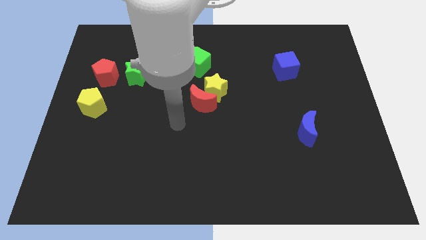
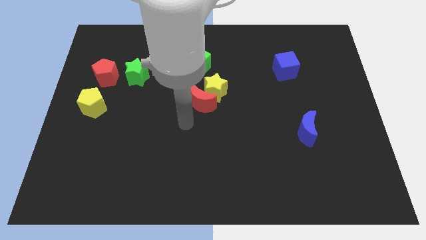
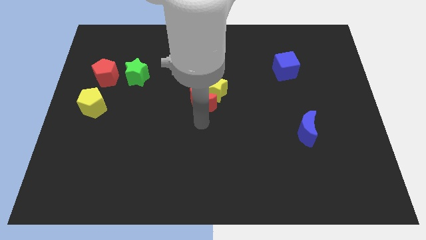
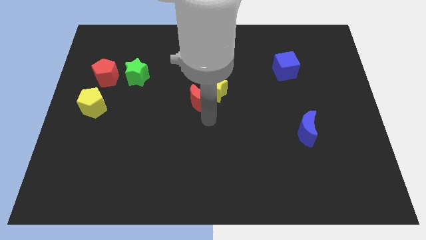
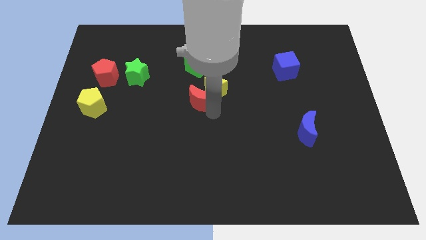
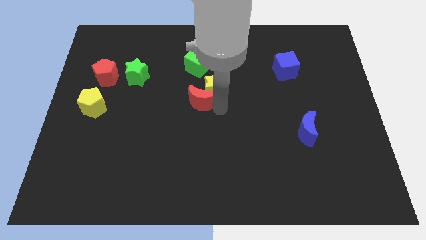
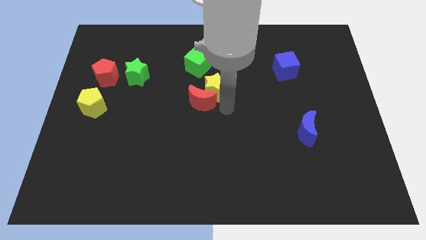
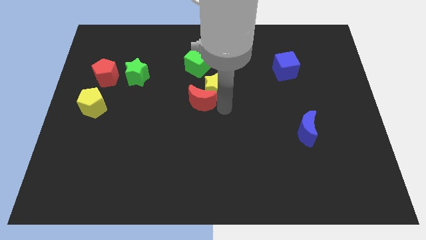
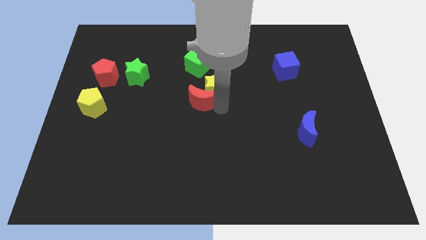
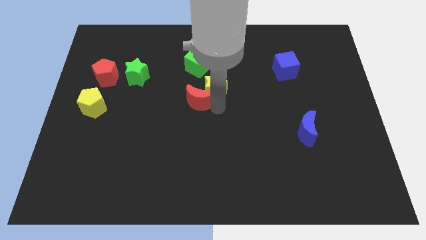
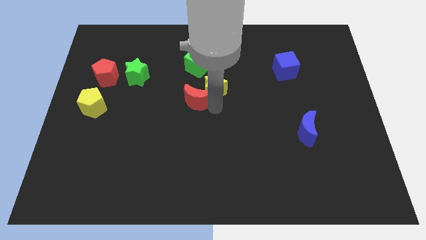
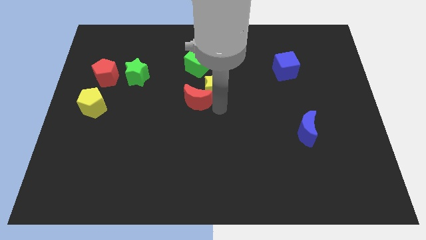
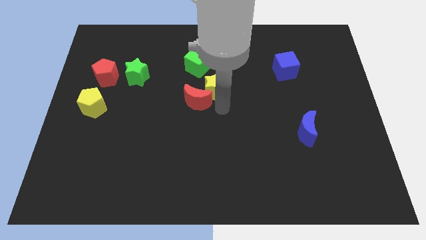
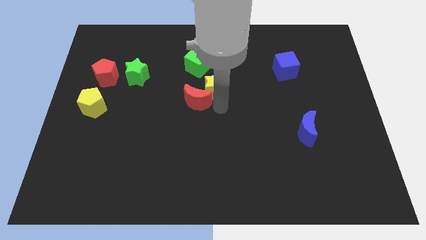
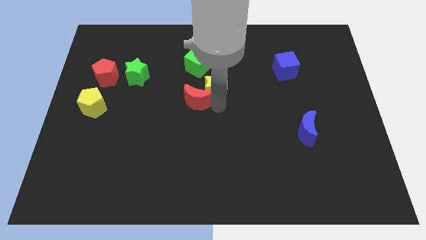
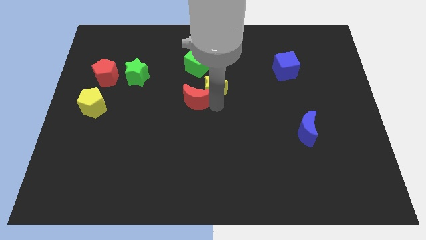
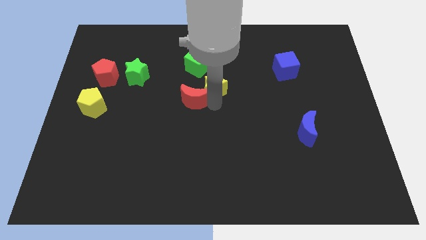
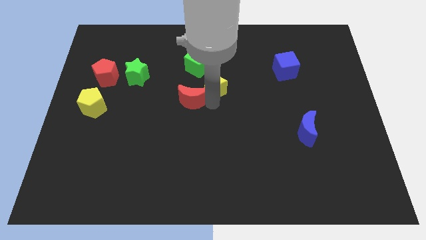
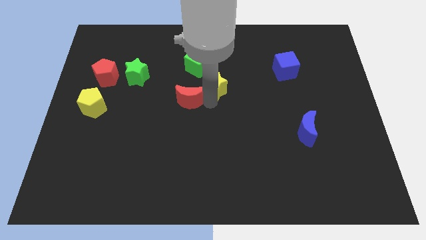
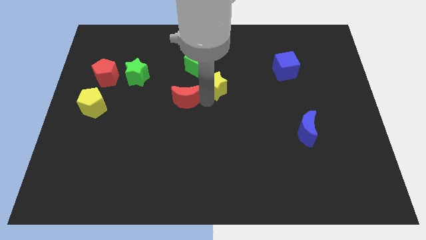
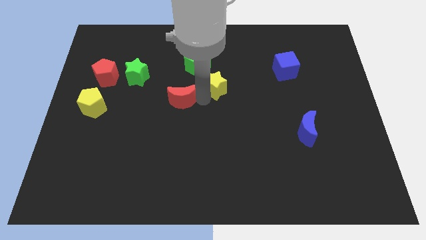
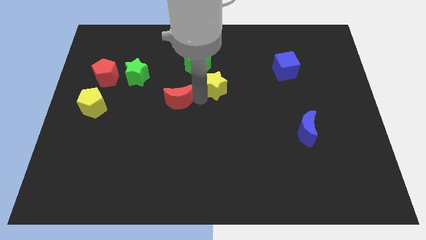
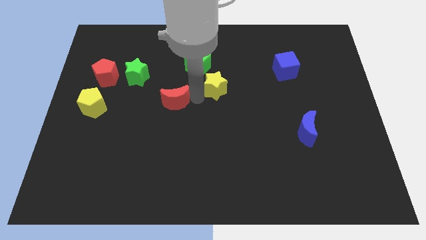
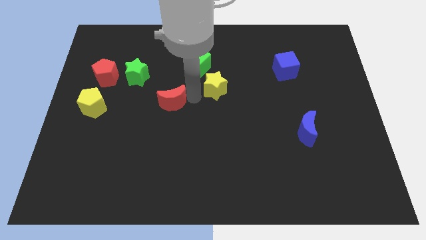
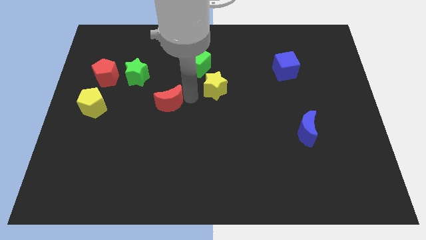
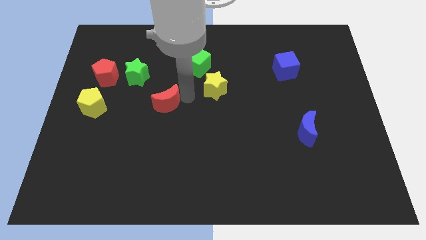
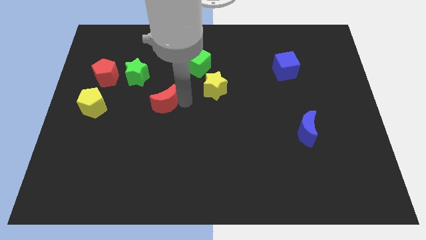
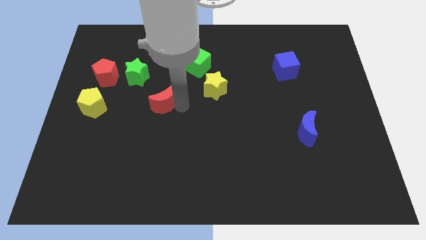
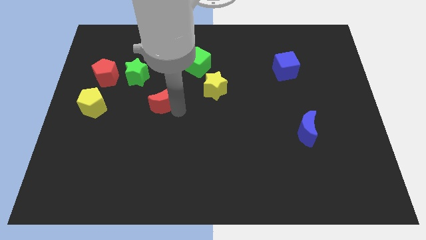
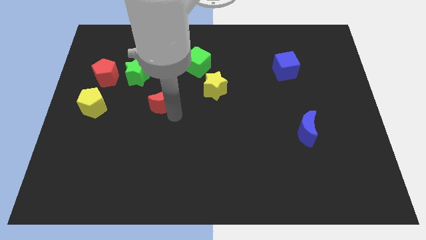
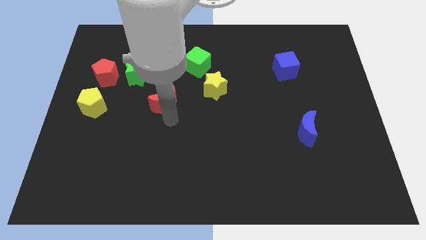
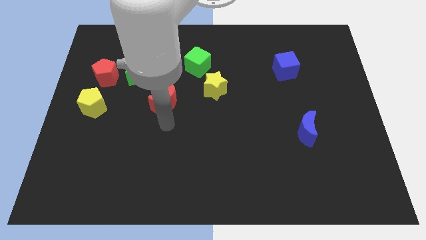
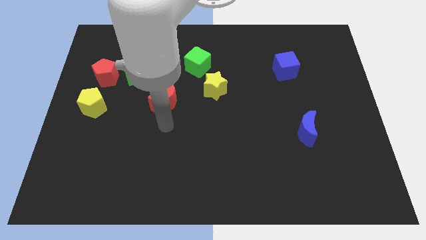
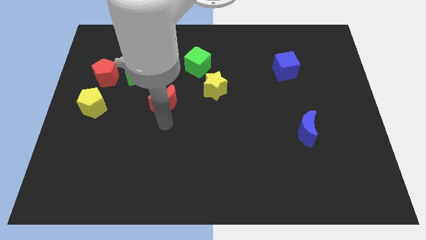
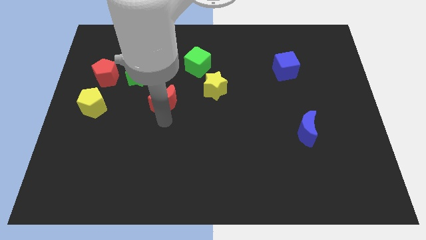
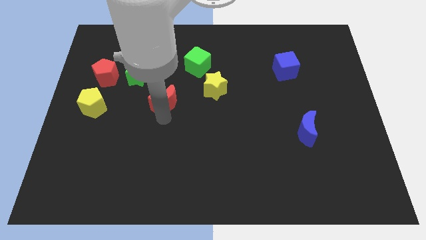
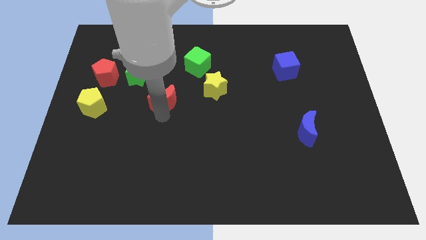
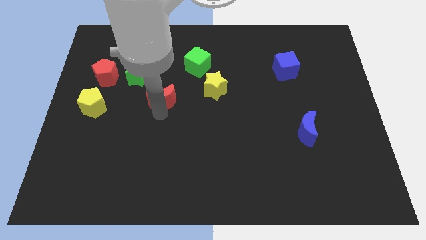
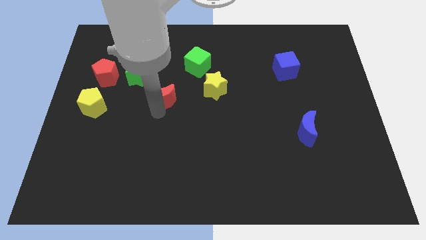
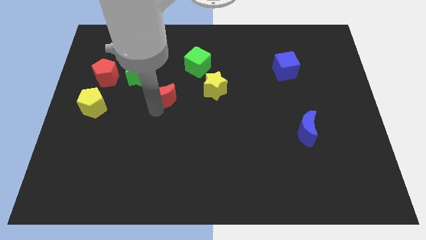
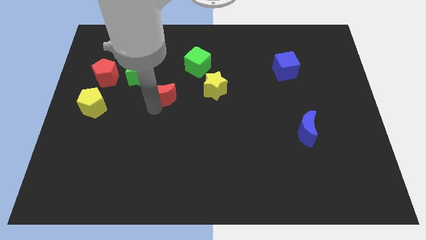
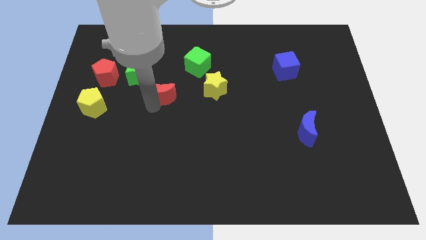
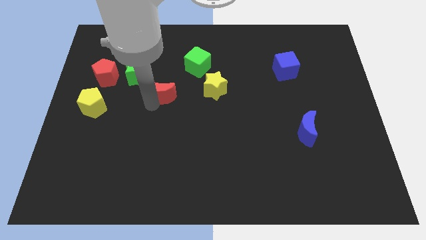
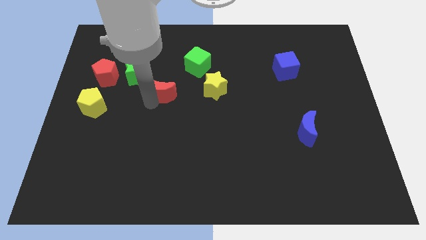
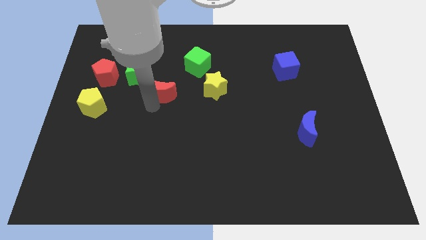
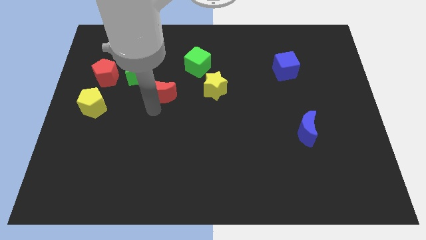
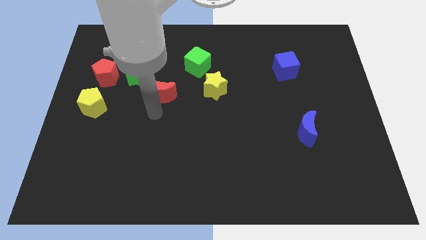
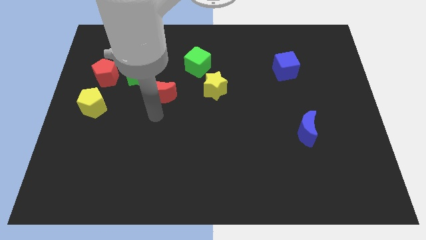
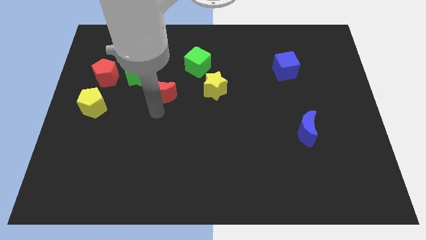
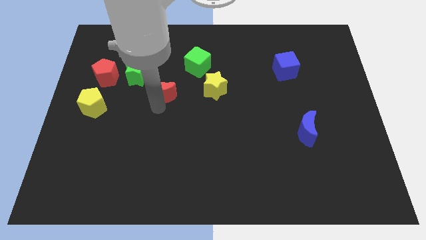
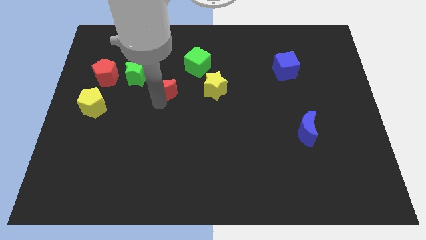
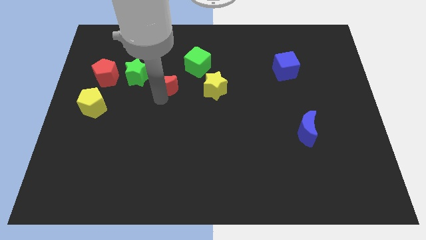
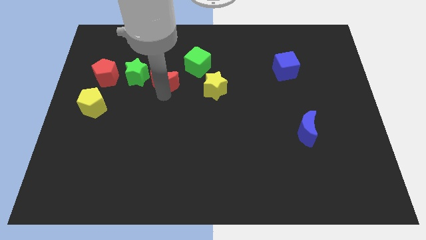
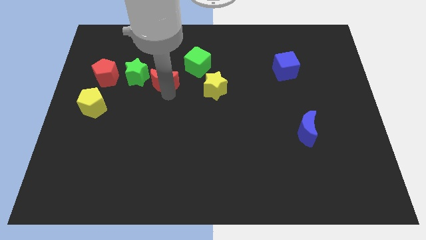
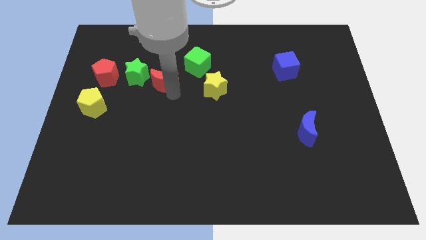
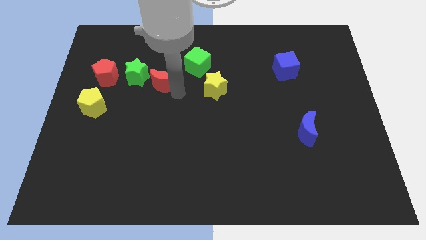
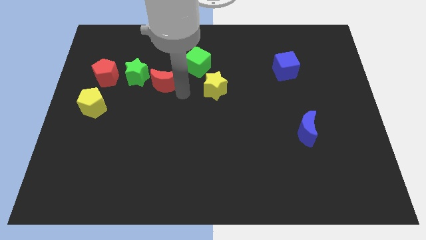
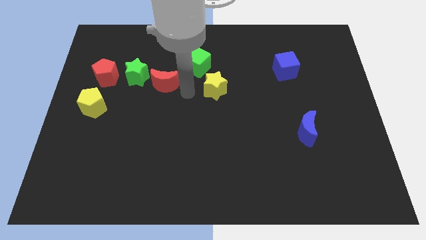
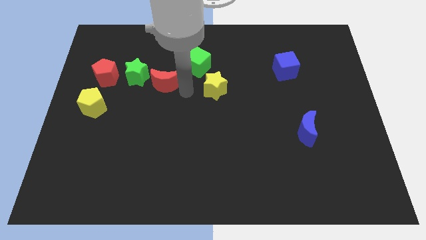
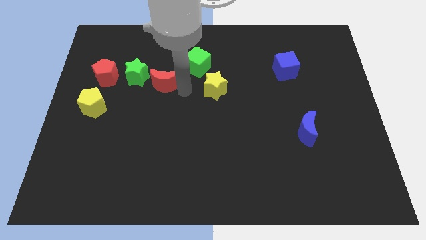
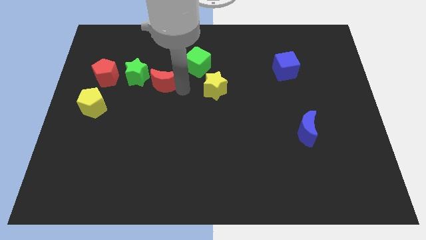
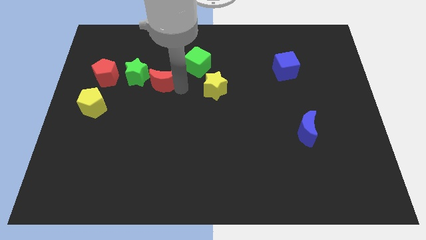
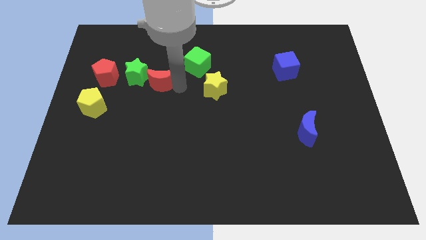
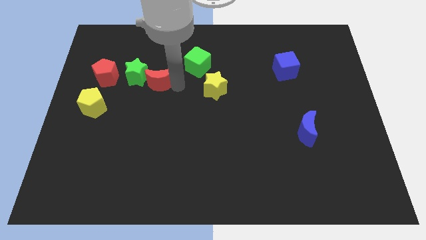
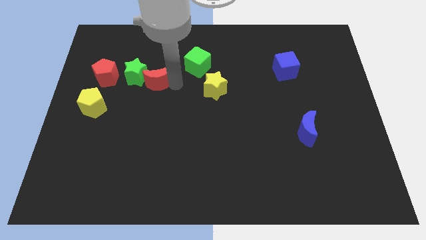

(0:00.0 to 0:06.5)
push the red moon close to the green star

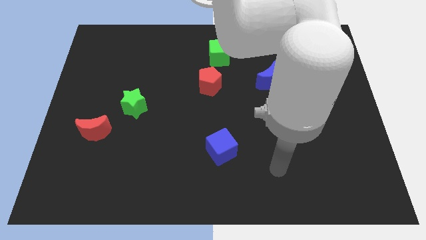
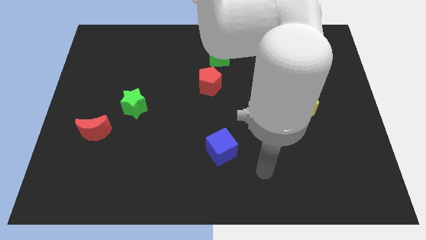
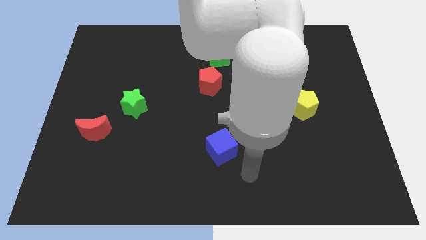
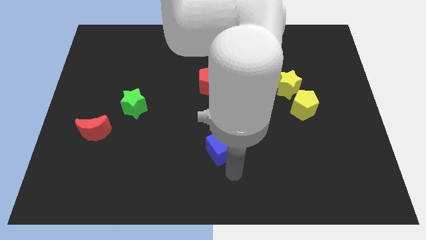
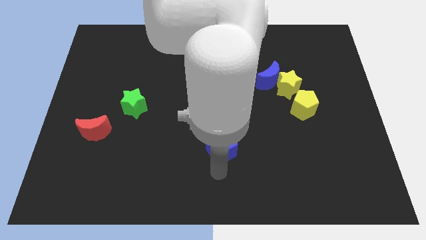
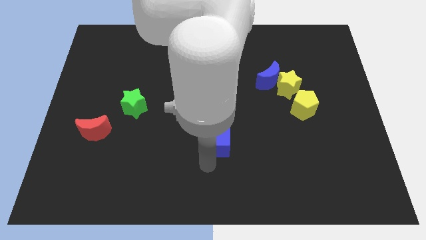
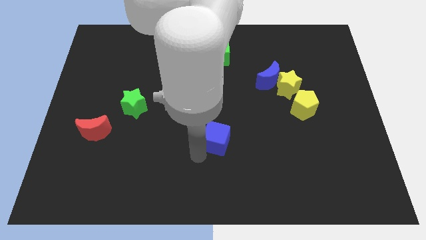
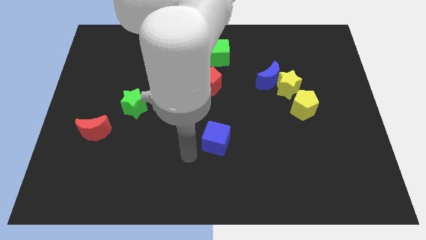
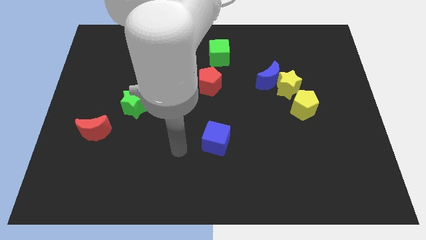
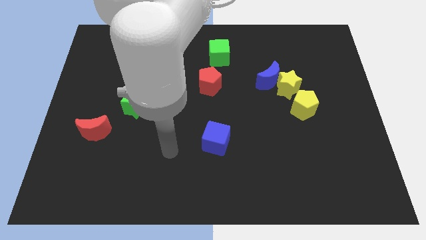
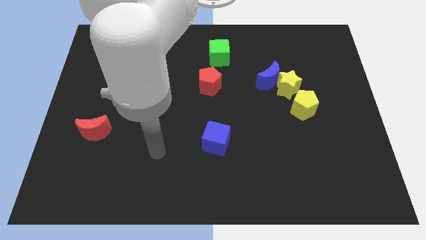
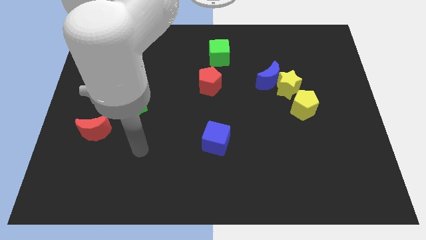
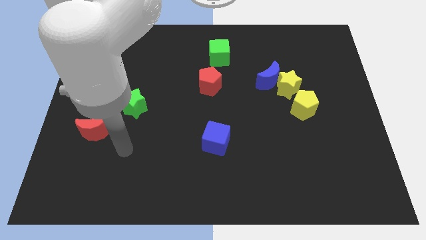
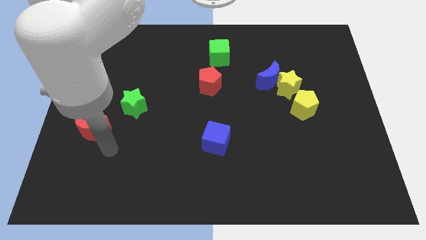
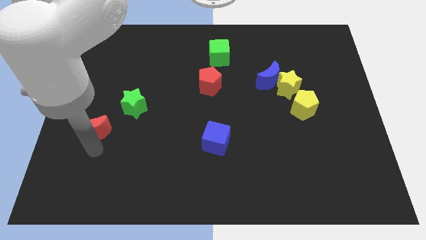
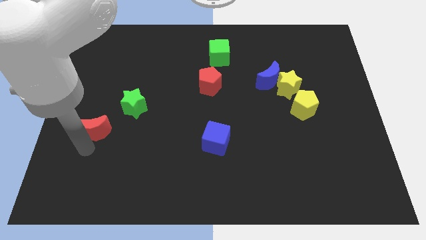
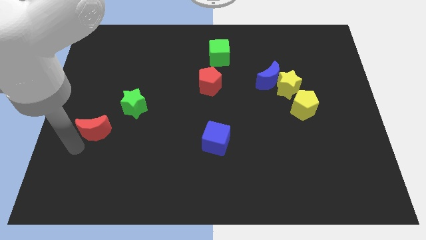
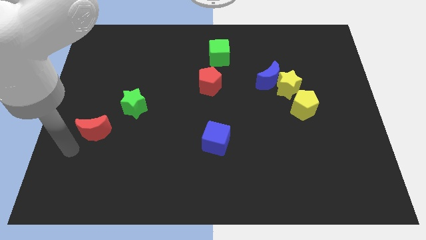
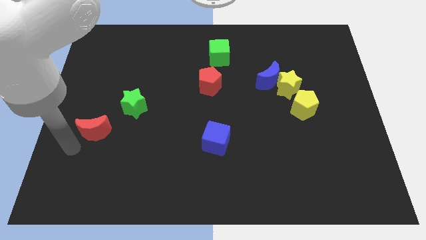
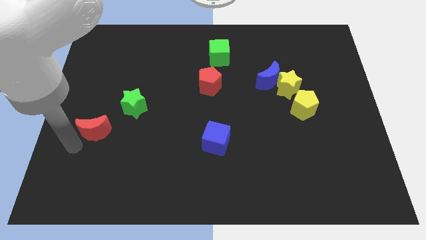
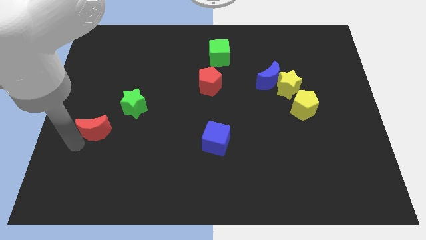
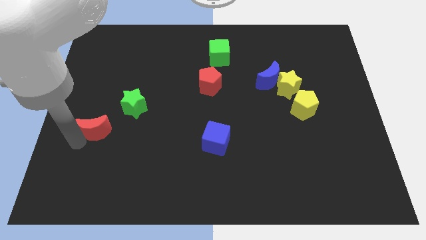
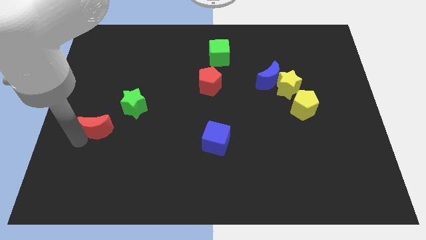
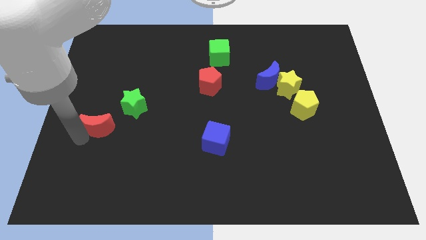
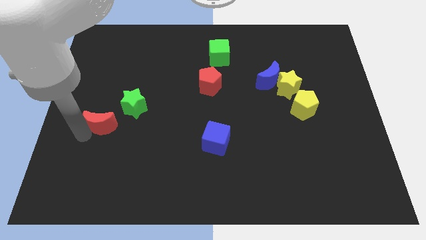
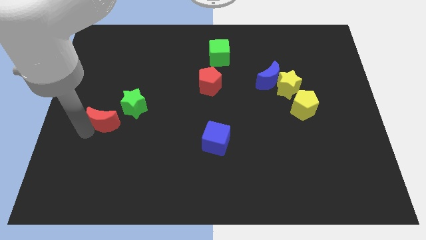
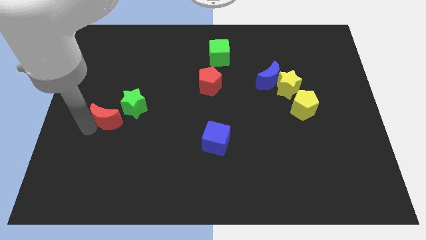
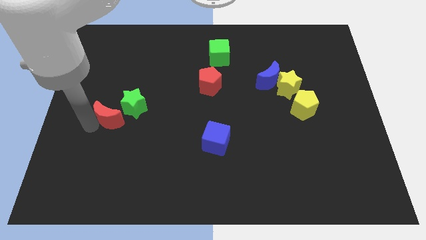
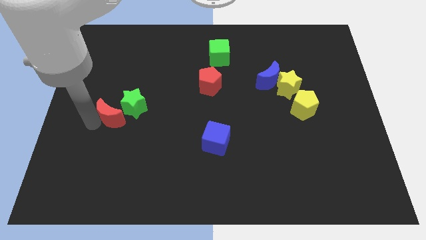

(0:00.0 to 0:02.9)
put the red moon towards the green star
